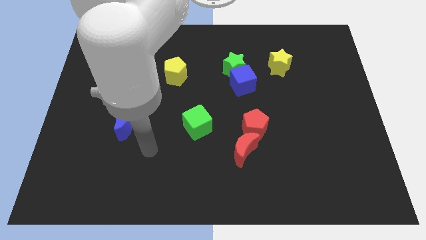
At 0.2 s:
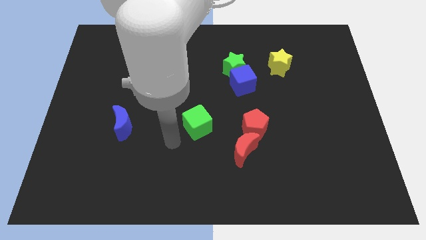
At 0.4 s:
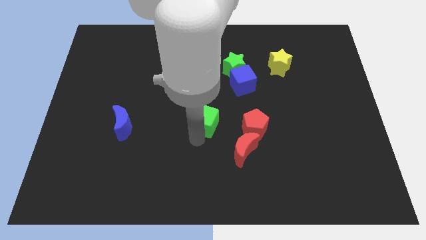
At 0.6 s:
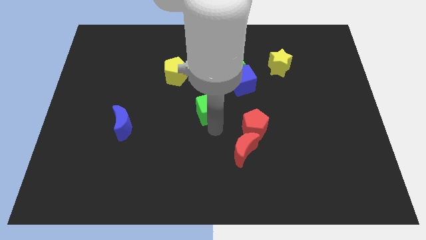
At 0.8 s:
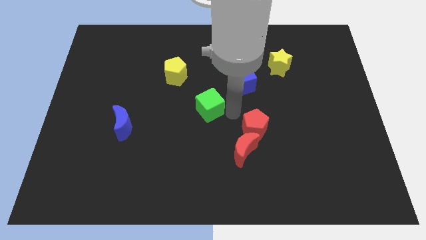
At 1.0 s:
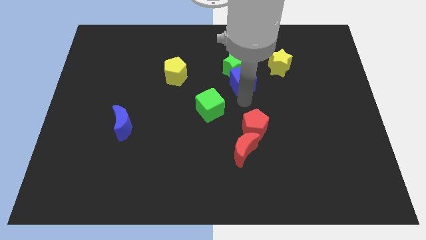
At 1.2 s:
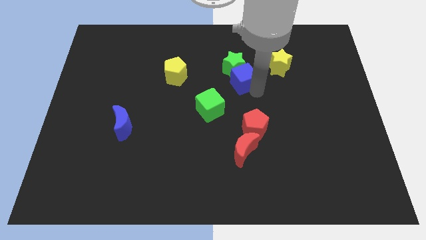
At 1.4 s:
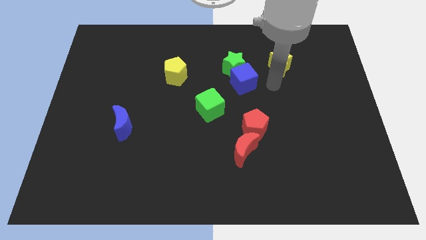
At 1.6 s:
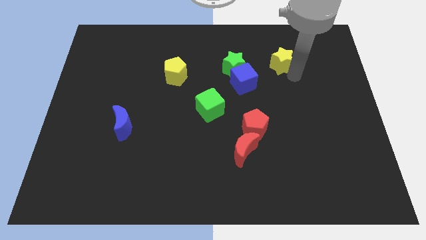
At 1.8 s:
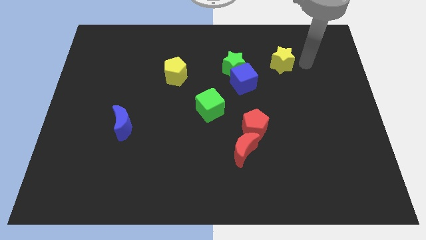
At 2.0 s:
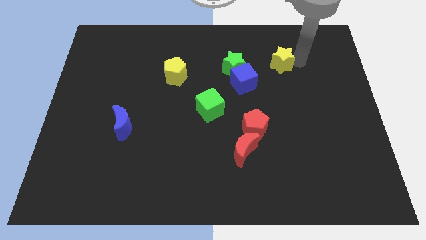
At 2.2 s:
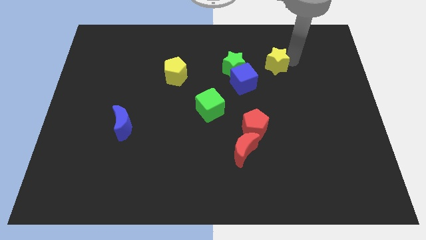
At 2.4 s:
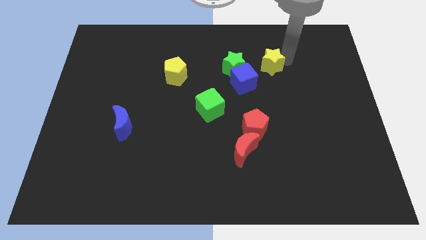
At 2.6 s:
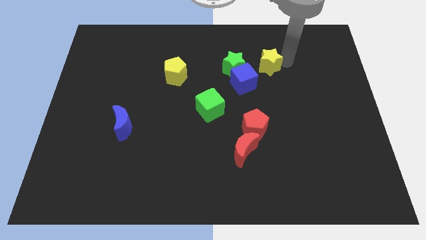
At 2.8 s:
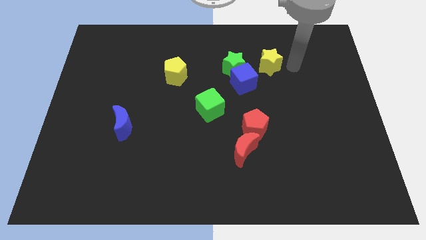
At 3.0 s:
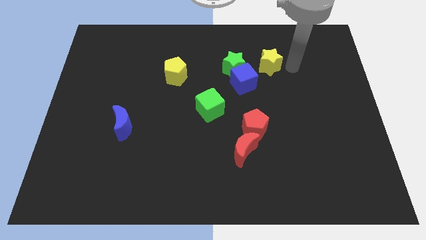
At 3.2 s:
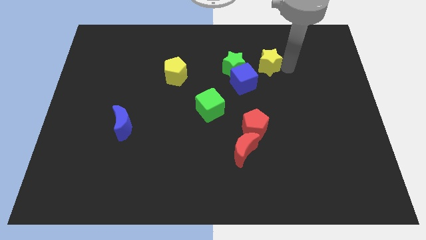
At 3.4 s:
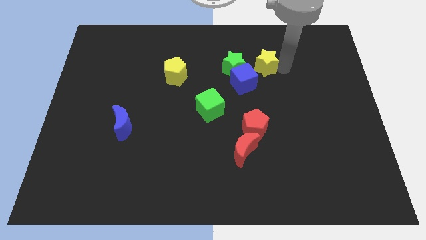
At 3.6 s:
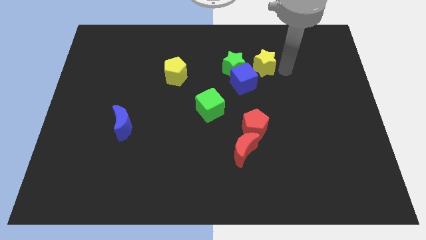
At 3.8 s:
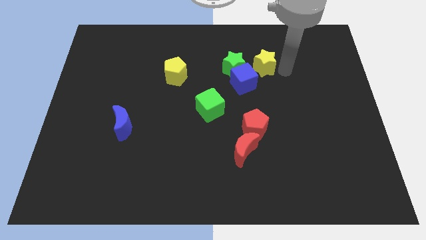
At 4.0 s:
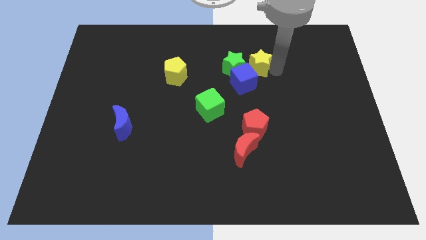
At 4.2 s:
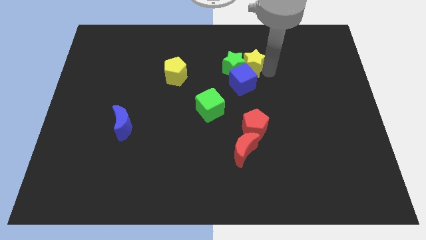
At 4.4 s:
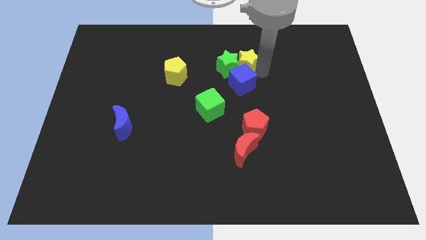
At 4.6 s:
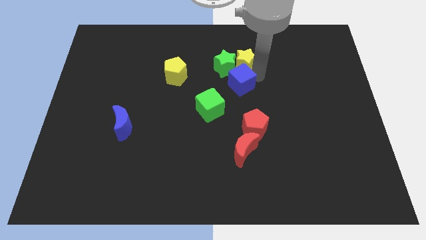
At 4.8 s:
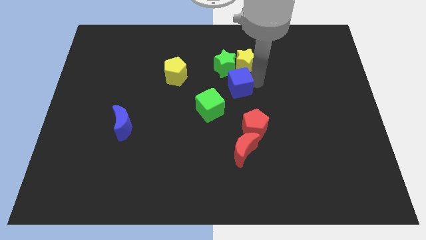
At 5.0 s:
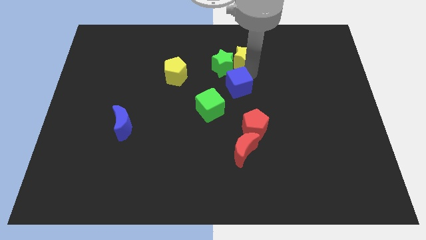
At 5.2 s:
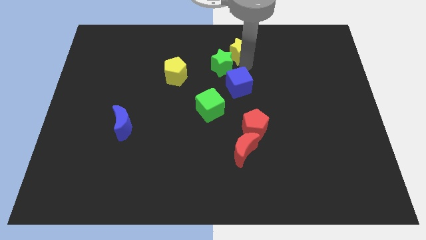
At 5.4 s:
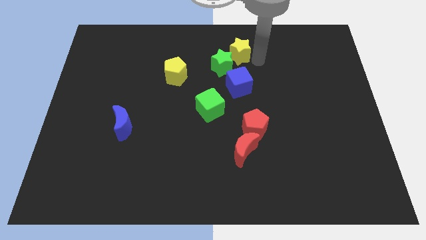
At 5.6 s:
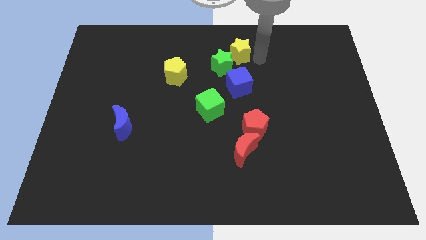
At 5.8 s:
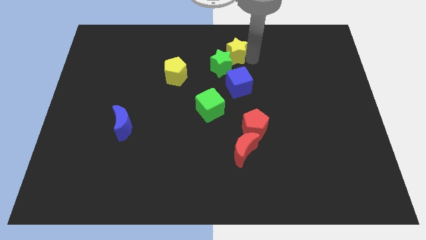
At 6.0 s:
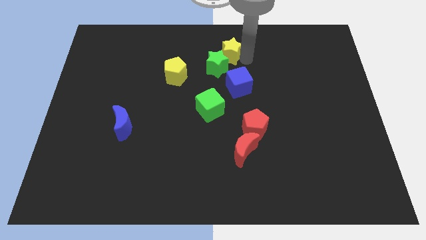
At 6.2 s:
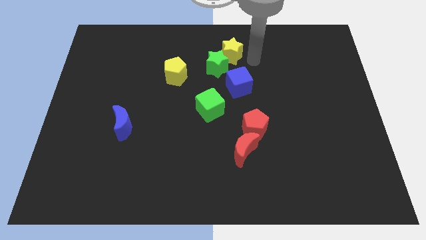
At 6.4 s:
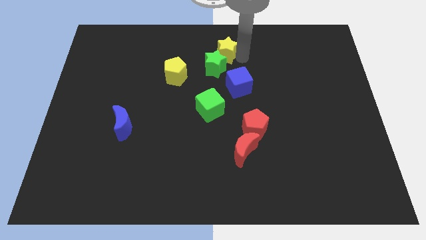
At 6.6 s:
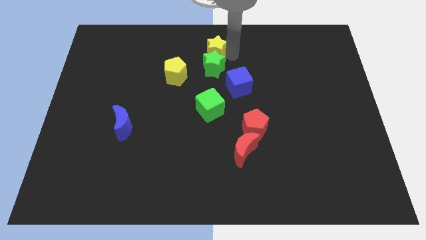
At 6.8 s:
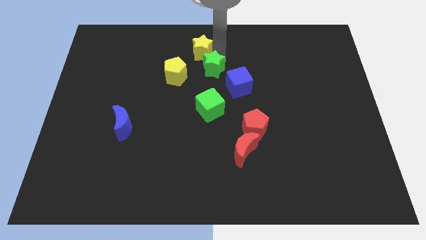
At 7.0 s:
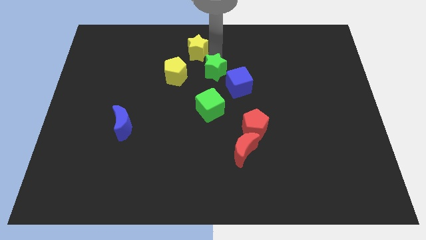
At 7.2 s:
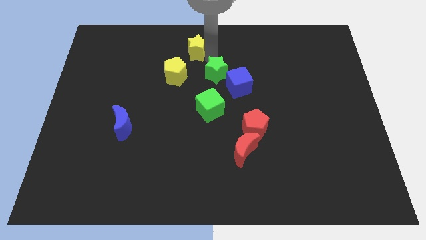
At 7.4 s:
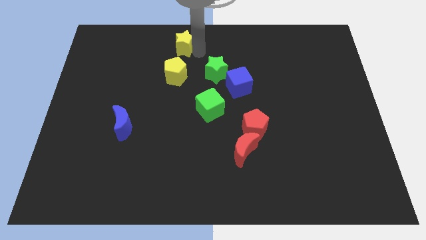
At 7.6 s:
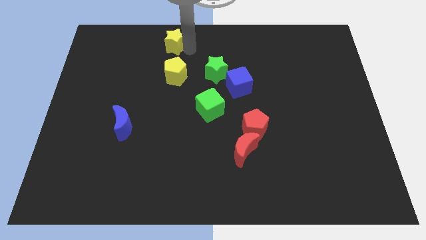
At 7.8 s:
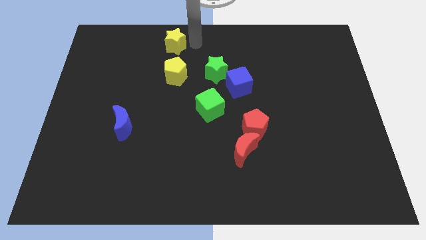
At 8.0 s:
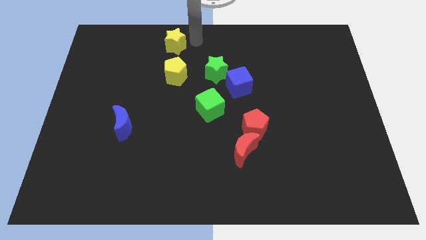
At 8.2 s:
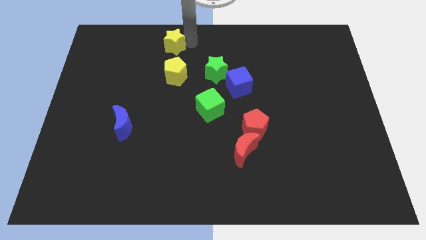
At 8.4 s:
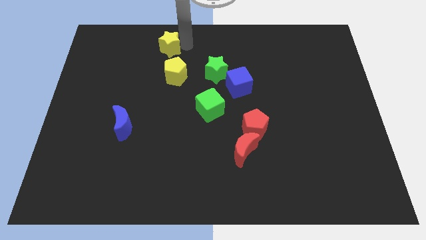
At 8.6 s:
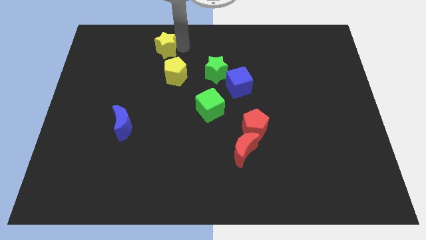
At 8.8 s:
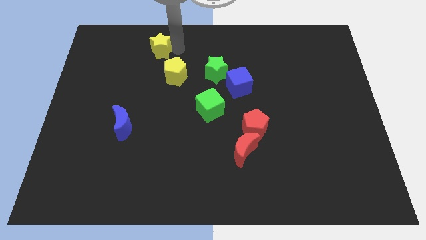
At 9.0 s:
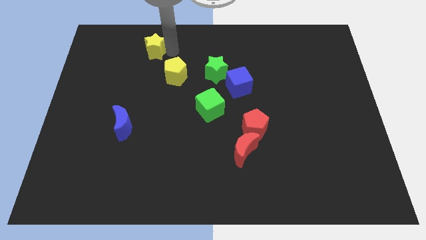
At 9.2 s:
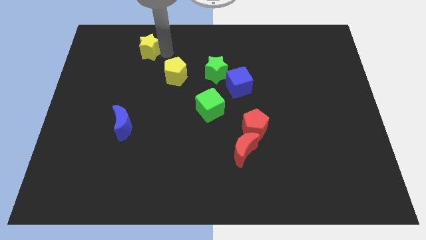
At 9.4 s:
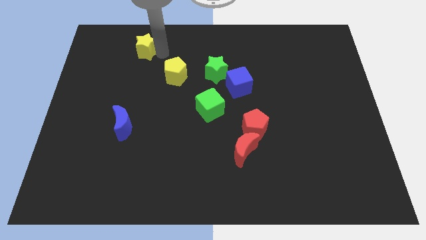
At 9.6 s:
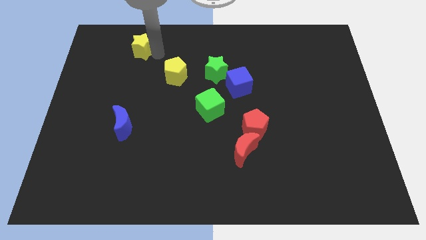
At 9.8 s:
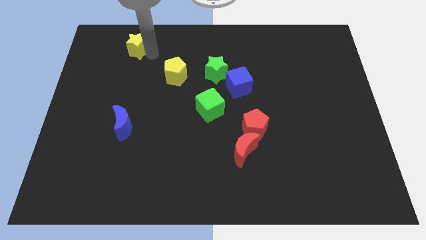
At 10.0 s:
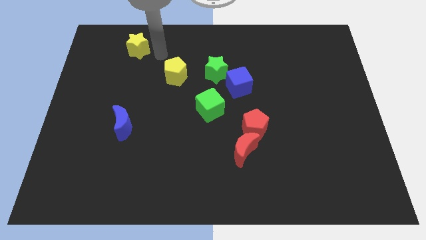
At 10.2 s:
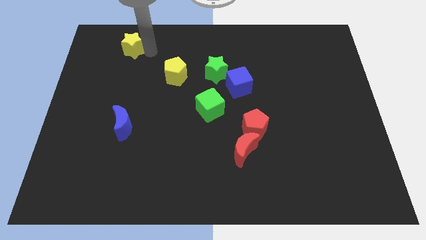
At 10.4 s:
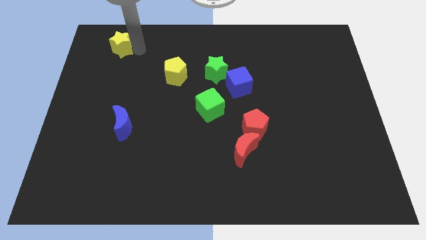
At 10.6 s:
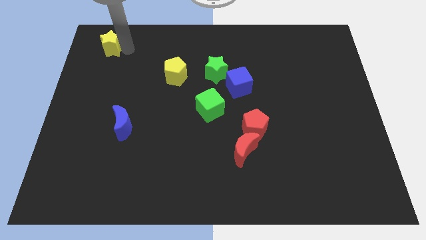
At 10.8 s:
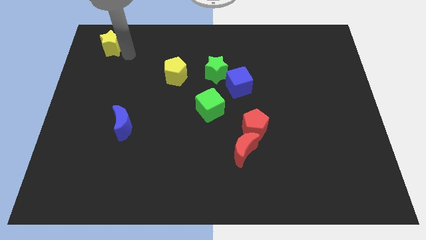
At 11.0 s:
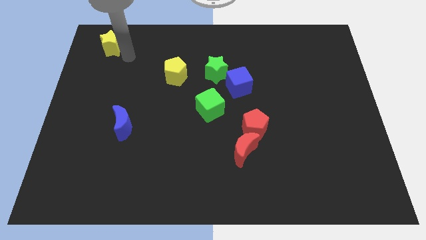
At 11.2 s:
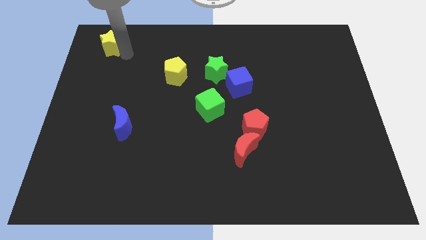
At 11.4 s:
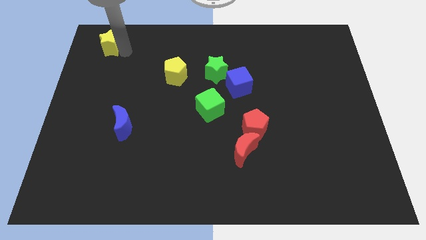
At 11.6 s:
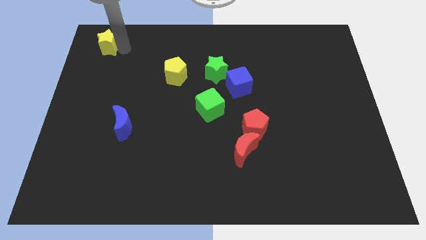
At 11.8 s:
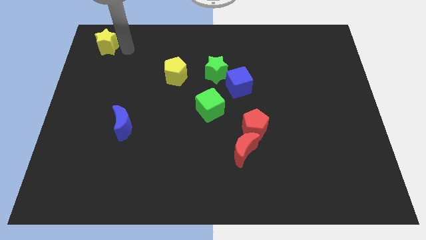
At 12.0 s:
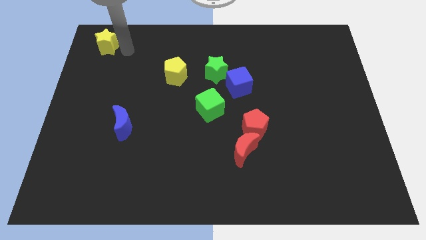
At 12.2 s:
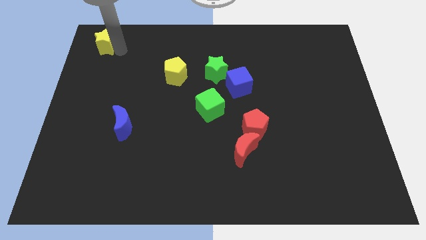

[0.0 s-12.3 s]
move the yellow star to the top left of the board
